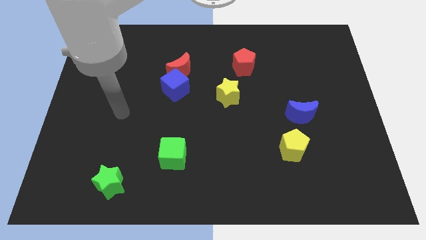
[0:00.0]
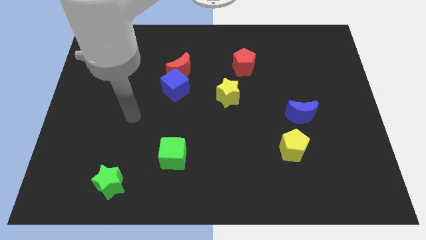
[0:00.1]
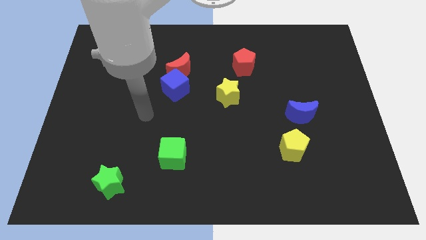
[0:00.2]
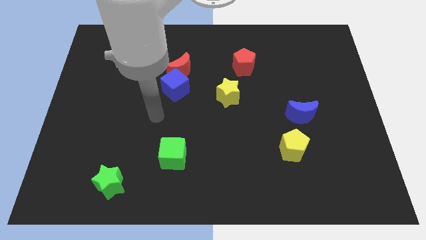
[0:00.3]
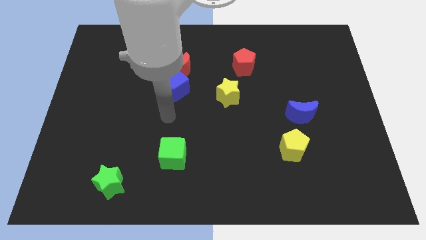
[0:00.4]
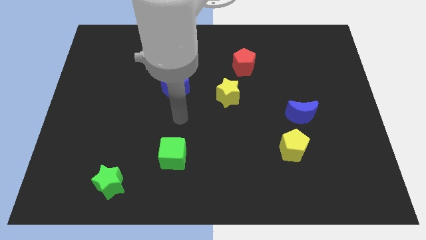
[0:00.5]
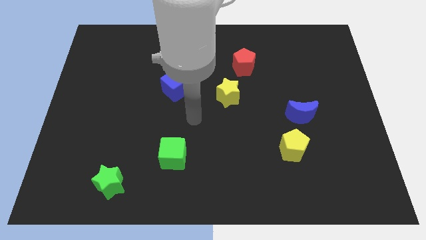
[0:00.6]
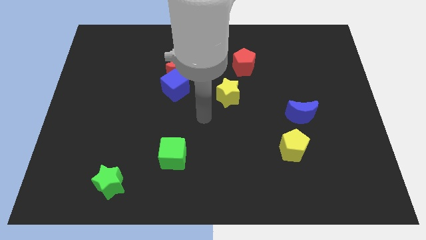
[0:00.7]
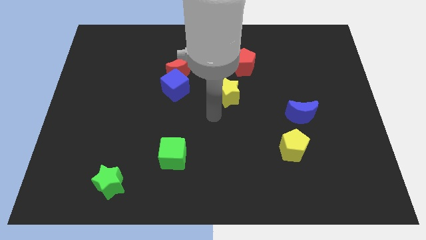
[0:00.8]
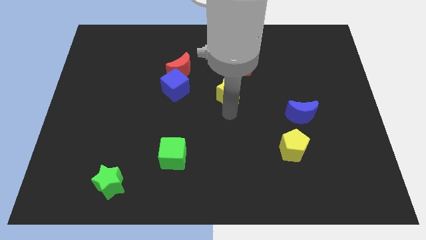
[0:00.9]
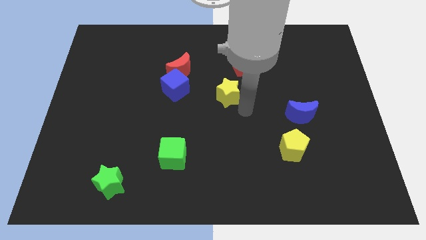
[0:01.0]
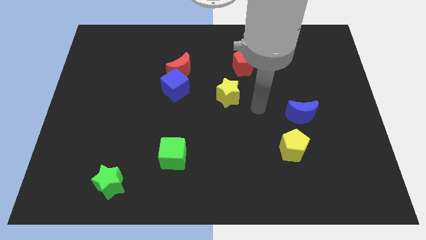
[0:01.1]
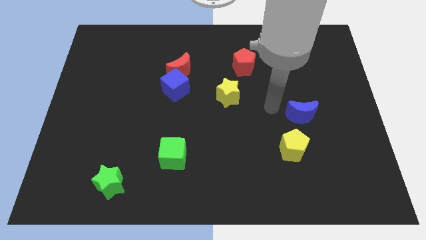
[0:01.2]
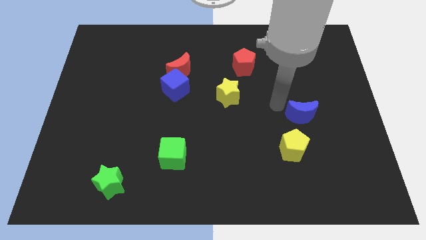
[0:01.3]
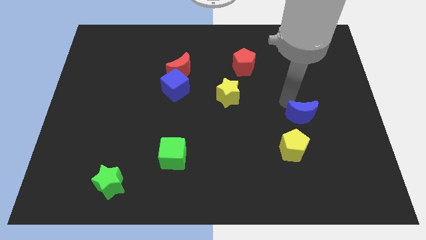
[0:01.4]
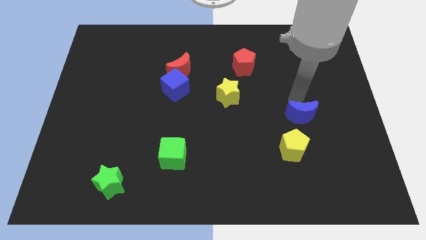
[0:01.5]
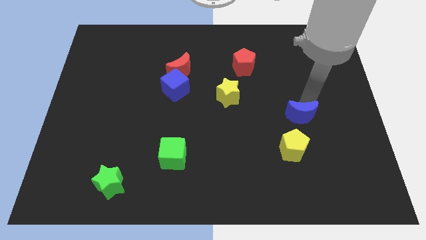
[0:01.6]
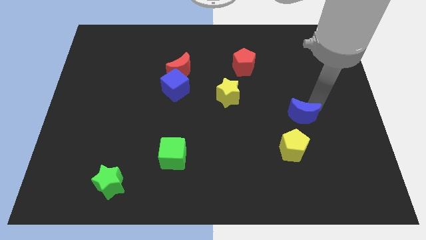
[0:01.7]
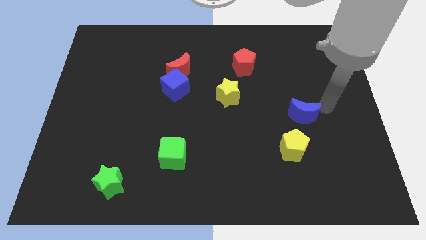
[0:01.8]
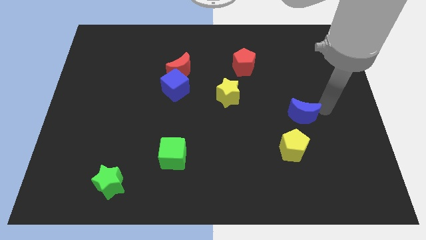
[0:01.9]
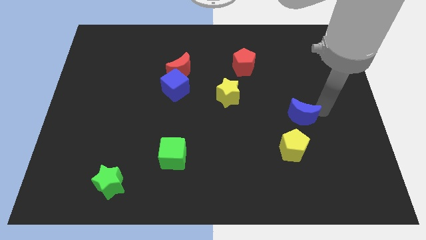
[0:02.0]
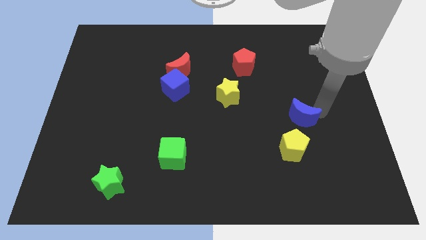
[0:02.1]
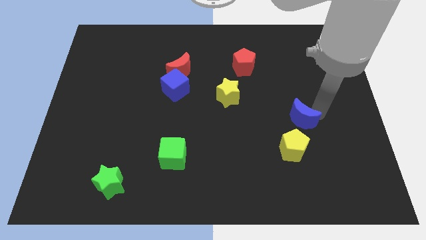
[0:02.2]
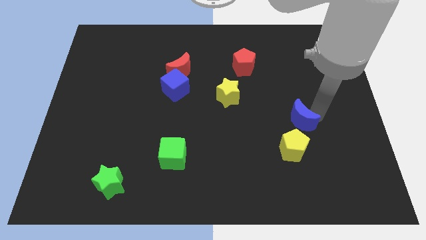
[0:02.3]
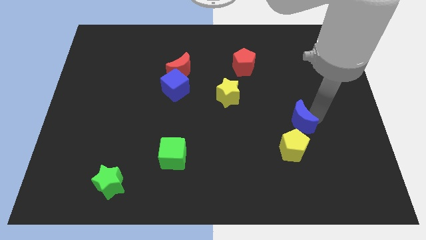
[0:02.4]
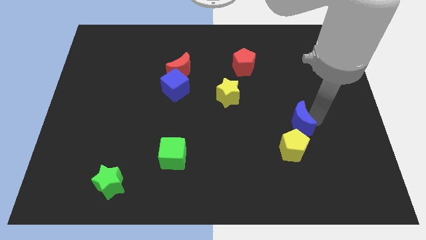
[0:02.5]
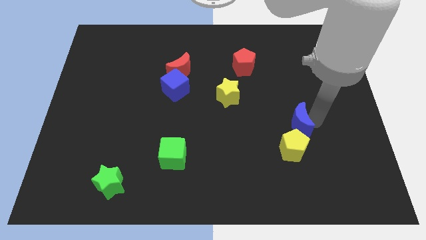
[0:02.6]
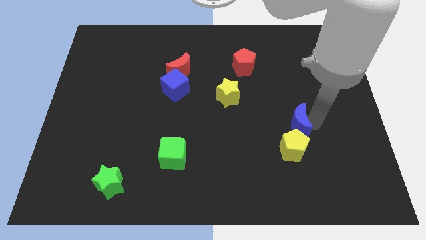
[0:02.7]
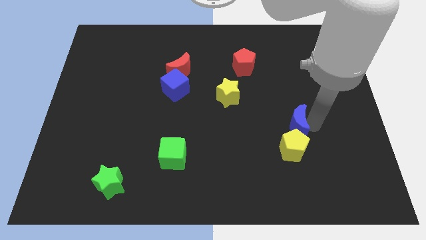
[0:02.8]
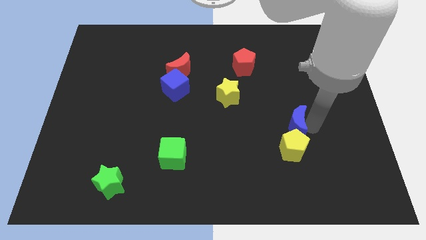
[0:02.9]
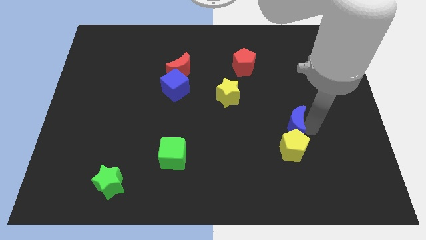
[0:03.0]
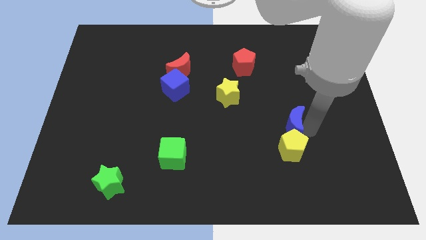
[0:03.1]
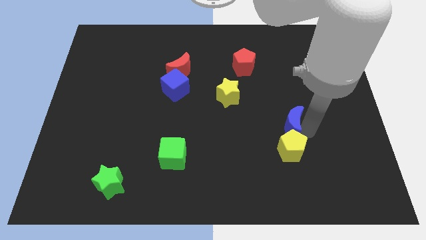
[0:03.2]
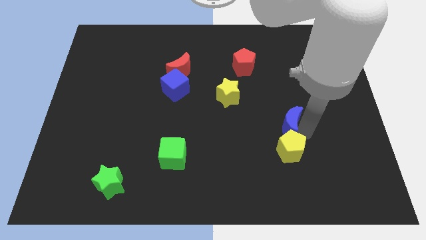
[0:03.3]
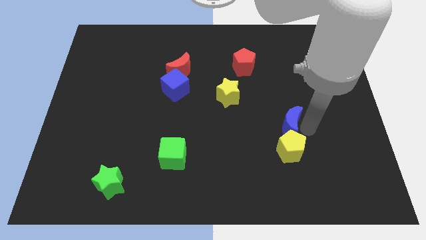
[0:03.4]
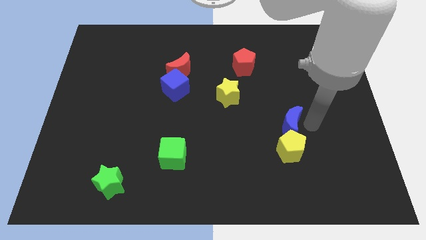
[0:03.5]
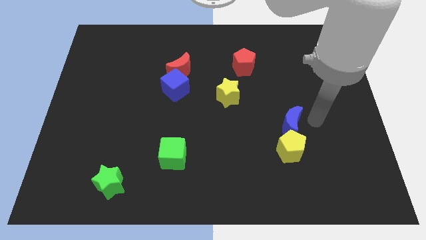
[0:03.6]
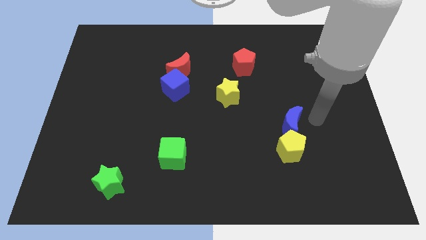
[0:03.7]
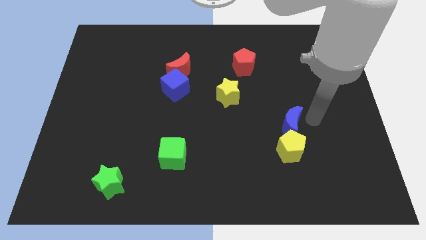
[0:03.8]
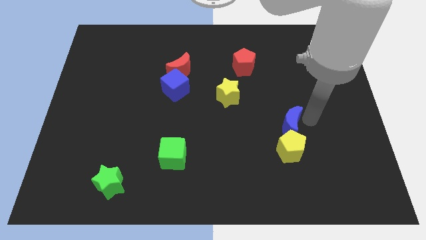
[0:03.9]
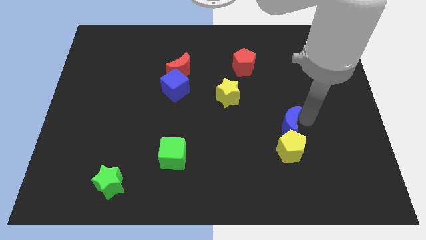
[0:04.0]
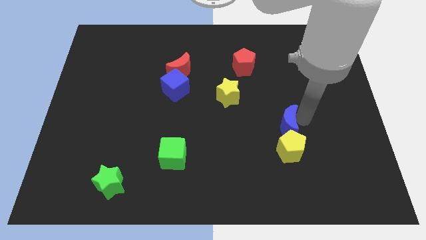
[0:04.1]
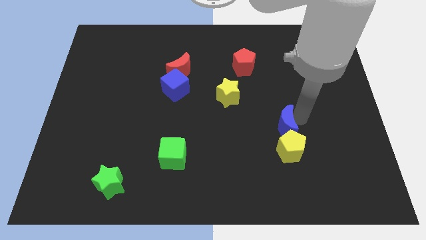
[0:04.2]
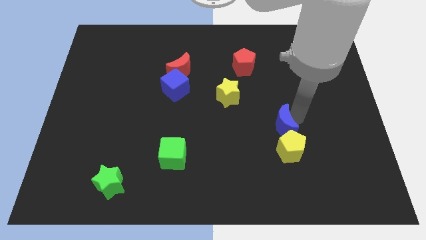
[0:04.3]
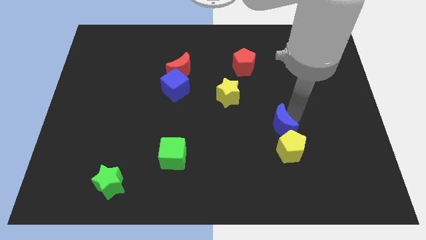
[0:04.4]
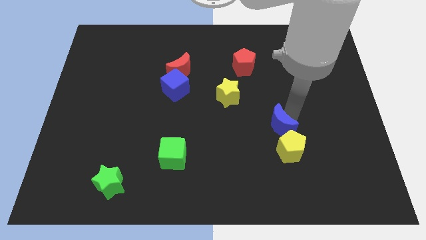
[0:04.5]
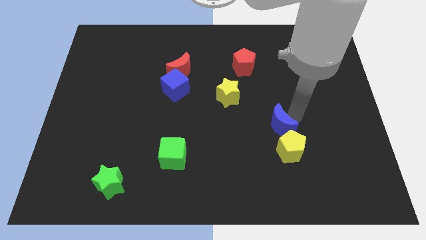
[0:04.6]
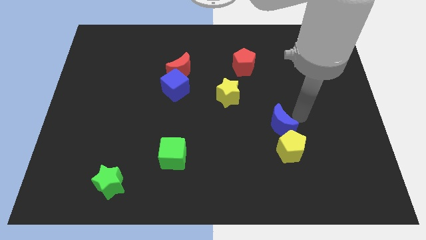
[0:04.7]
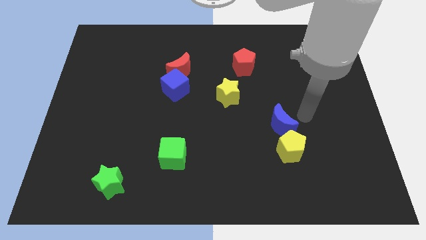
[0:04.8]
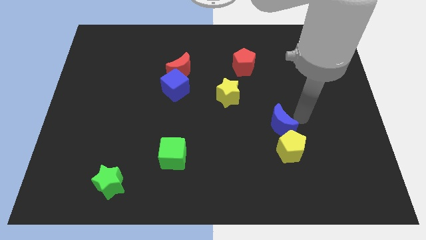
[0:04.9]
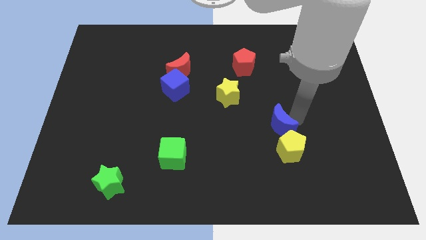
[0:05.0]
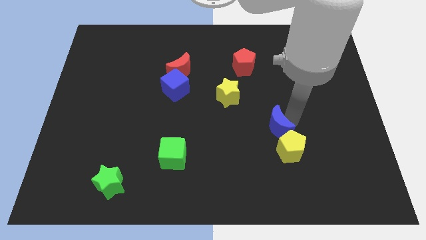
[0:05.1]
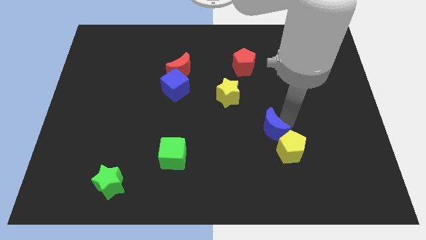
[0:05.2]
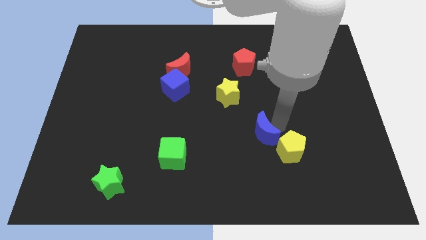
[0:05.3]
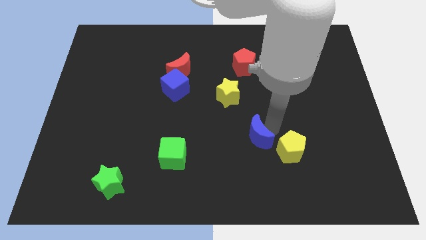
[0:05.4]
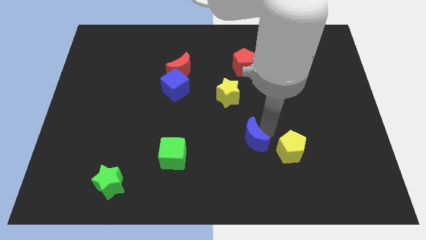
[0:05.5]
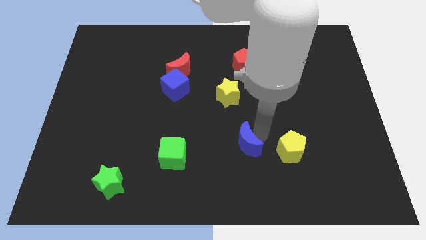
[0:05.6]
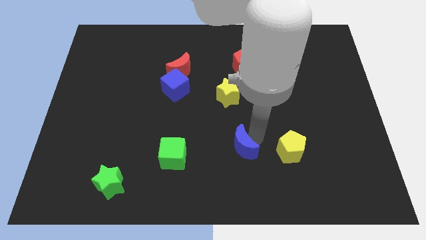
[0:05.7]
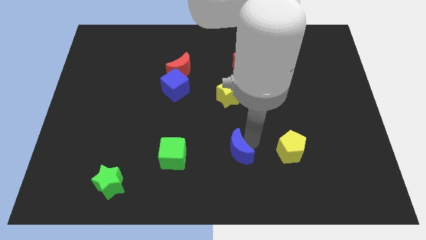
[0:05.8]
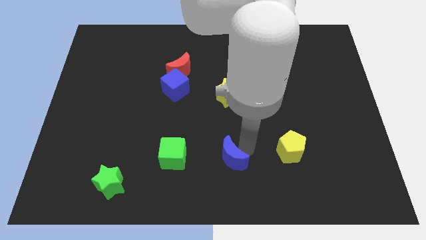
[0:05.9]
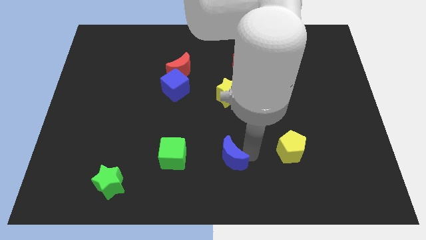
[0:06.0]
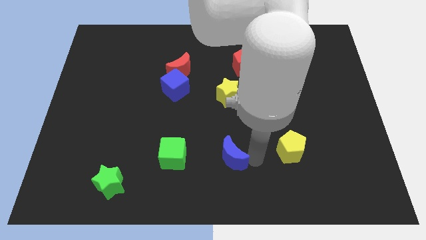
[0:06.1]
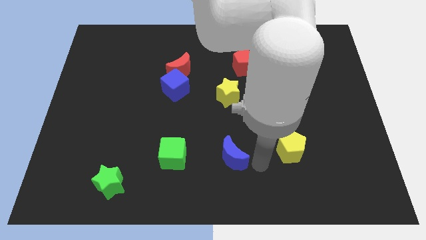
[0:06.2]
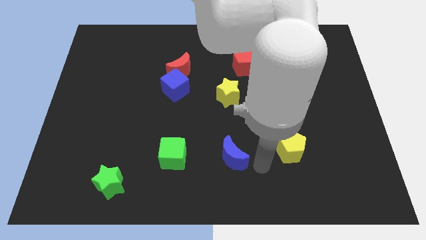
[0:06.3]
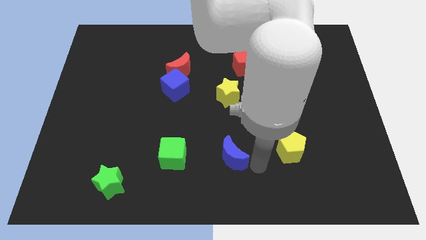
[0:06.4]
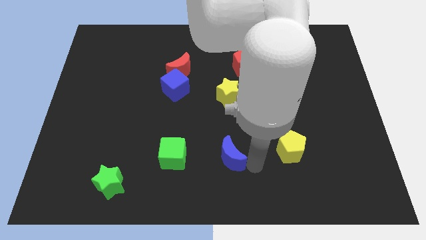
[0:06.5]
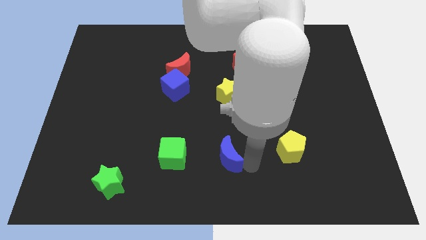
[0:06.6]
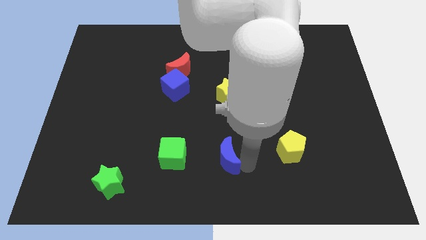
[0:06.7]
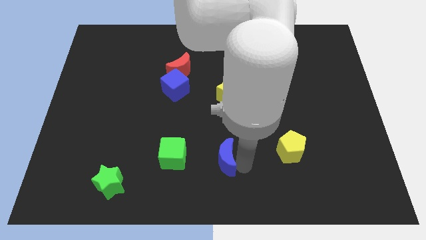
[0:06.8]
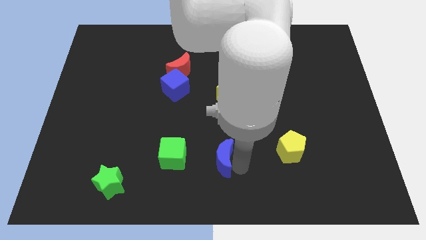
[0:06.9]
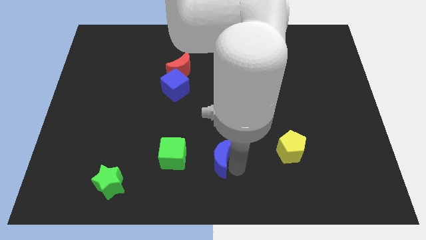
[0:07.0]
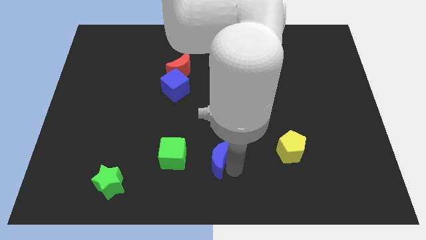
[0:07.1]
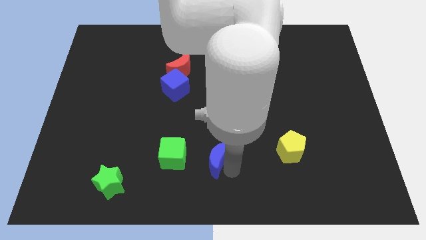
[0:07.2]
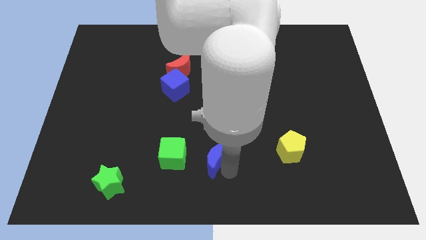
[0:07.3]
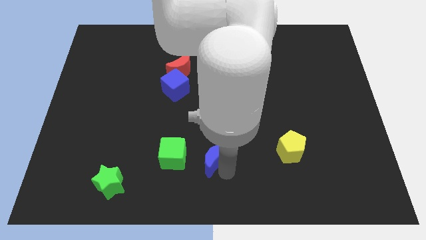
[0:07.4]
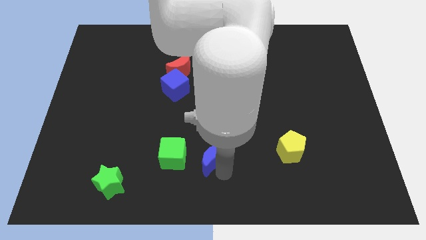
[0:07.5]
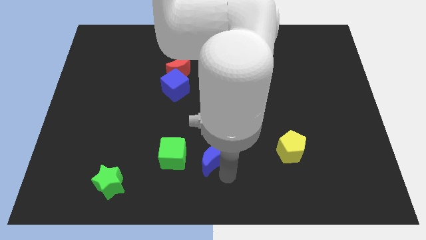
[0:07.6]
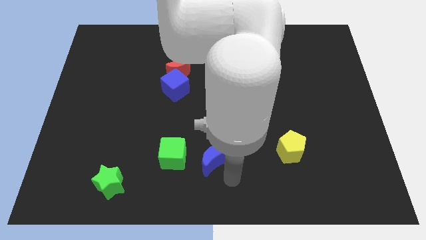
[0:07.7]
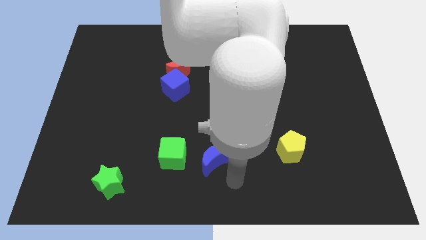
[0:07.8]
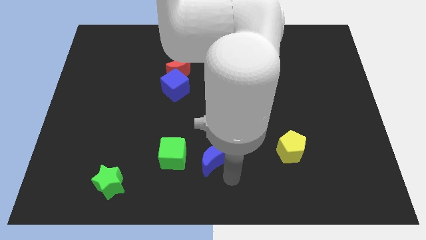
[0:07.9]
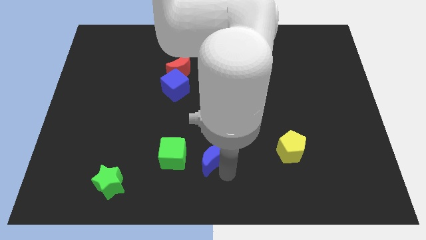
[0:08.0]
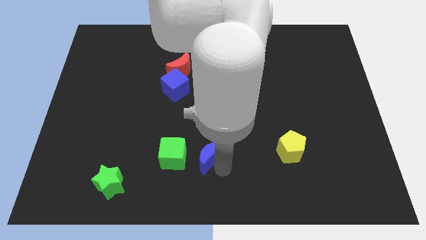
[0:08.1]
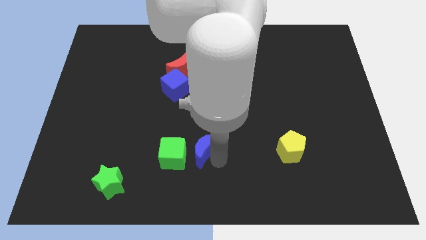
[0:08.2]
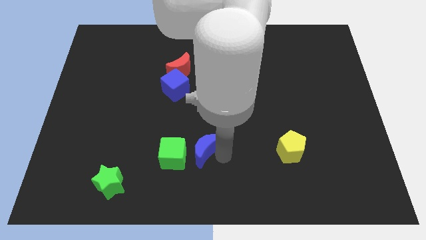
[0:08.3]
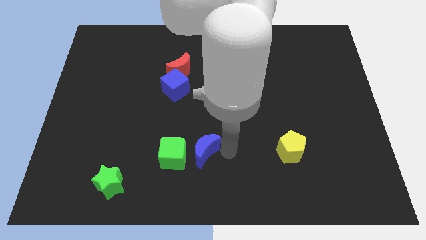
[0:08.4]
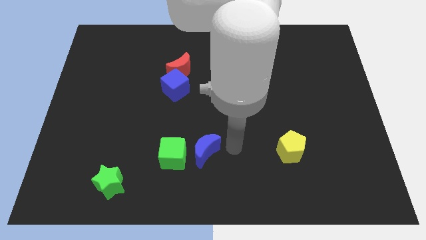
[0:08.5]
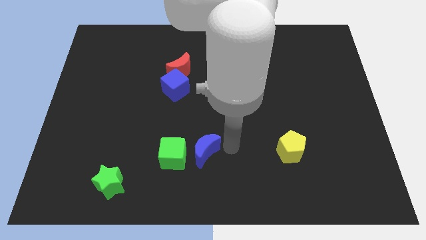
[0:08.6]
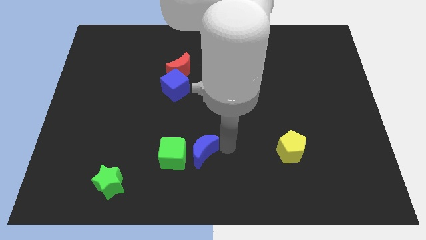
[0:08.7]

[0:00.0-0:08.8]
put the blue moon close to the green cube
